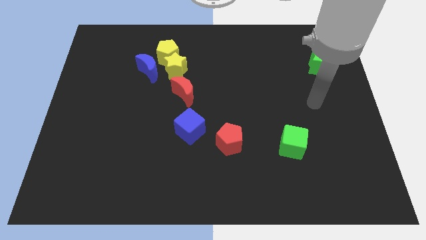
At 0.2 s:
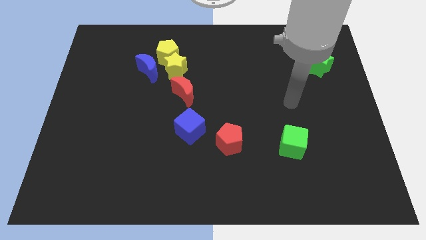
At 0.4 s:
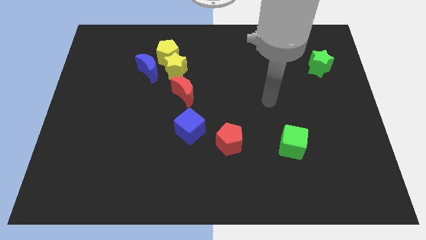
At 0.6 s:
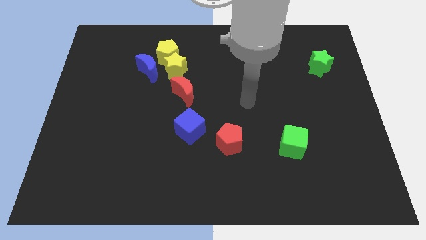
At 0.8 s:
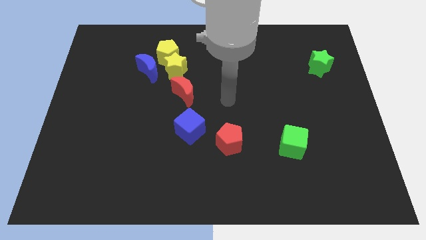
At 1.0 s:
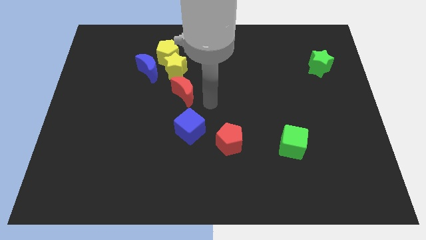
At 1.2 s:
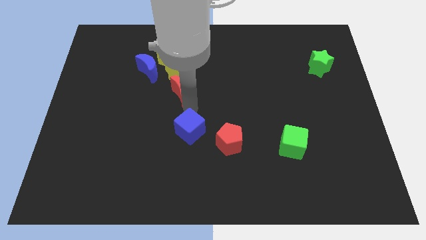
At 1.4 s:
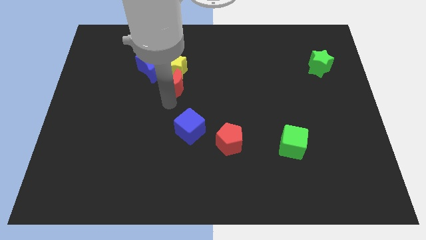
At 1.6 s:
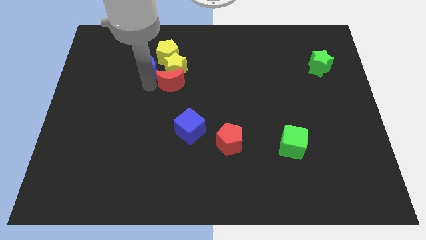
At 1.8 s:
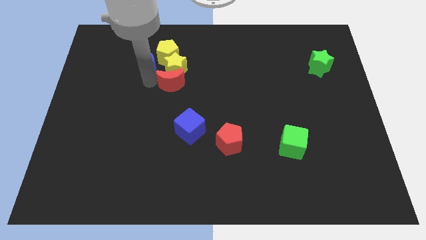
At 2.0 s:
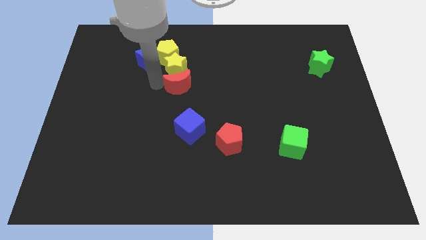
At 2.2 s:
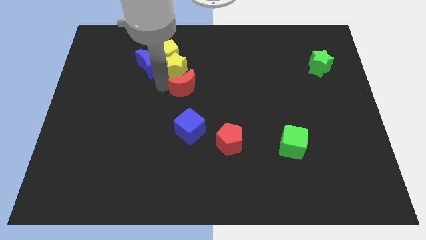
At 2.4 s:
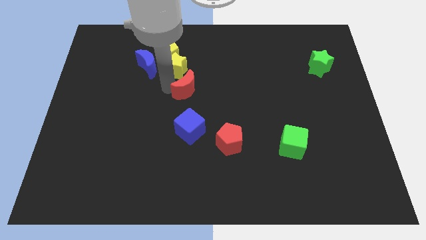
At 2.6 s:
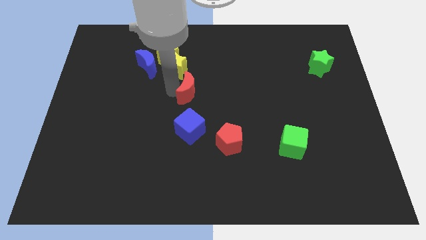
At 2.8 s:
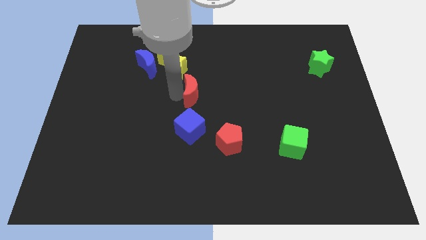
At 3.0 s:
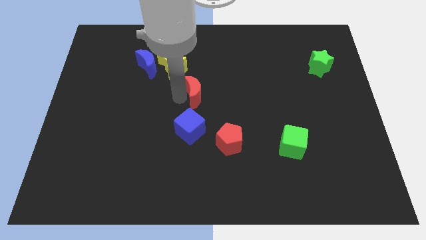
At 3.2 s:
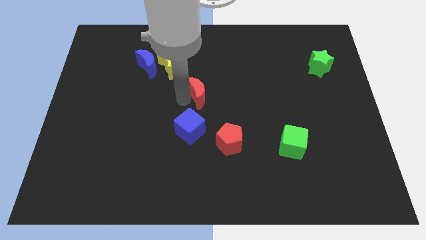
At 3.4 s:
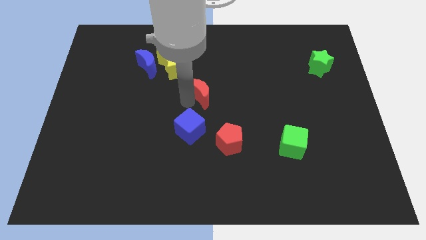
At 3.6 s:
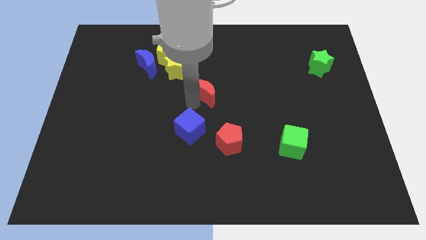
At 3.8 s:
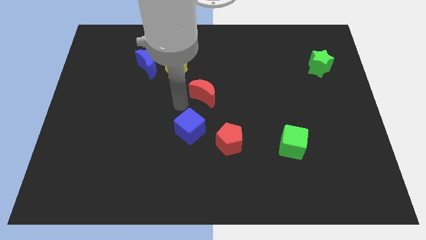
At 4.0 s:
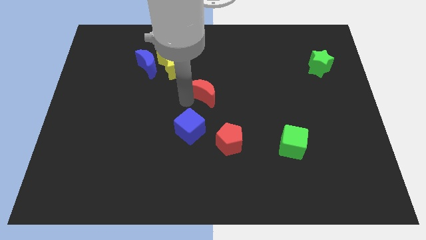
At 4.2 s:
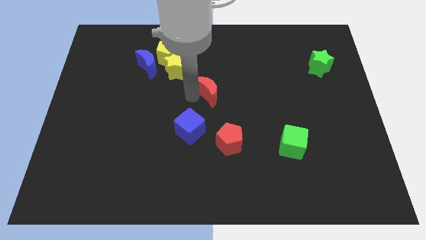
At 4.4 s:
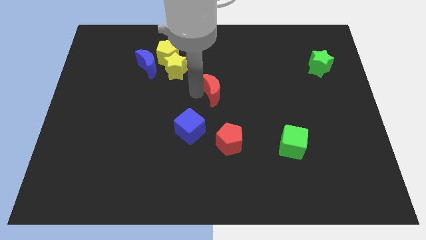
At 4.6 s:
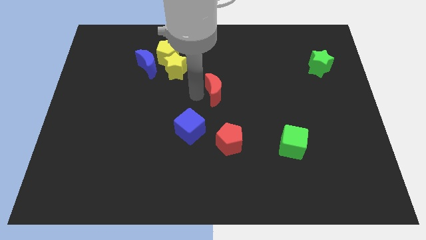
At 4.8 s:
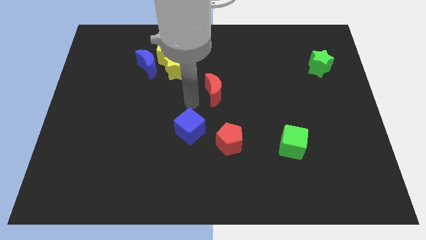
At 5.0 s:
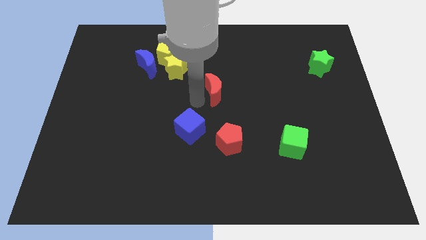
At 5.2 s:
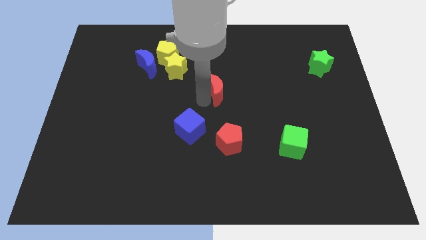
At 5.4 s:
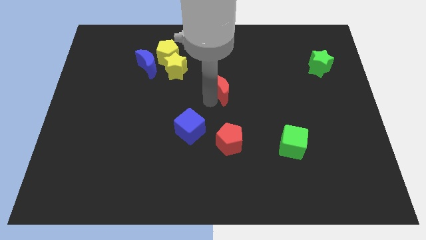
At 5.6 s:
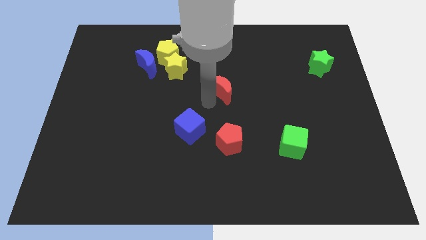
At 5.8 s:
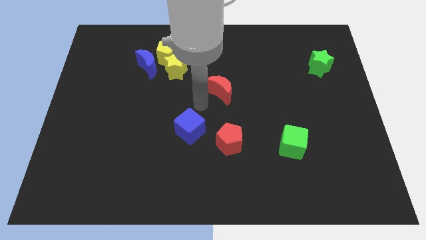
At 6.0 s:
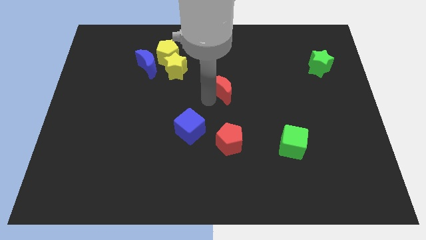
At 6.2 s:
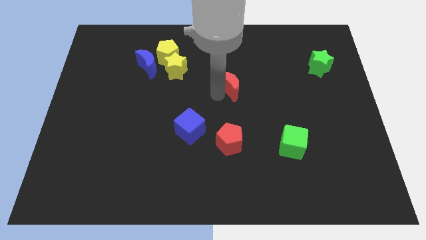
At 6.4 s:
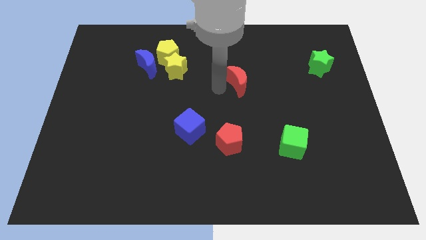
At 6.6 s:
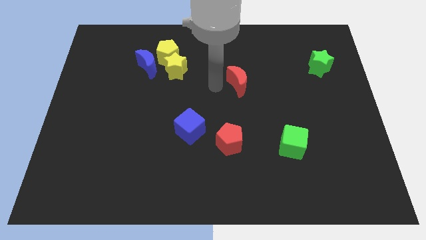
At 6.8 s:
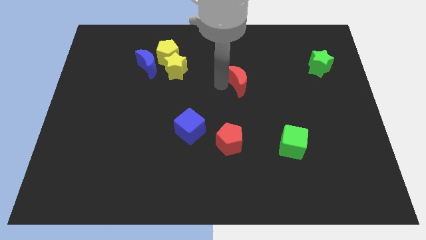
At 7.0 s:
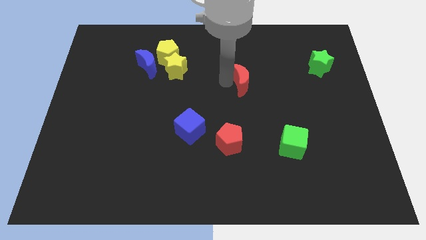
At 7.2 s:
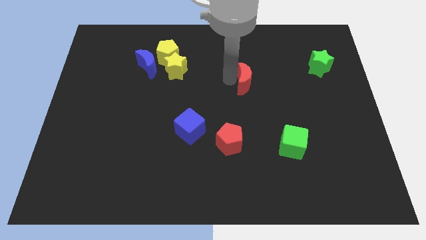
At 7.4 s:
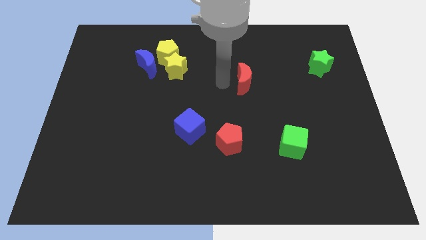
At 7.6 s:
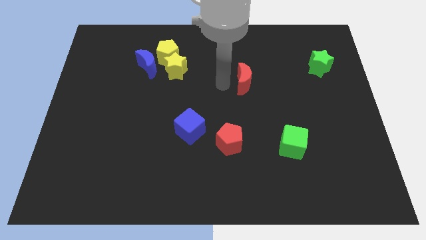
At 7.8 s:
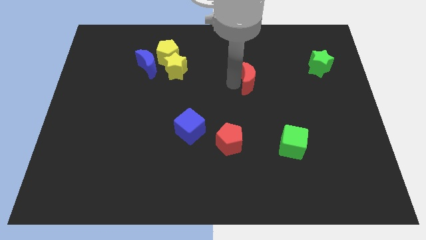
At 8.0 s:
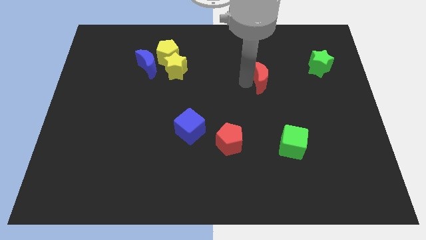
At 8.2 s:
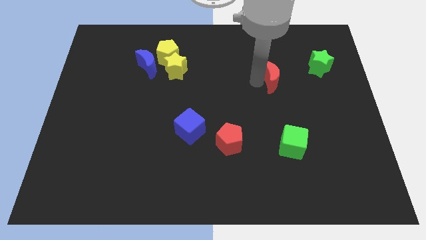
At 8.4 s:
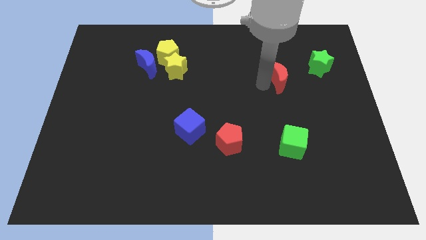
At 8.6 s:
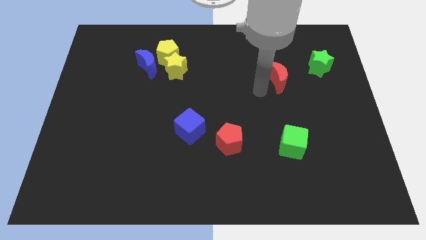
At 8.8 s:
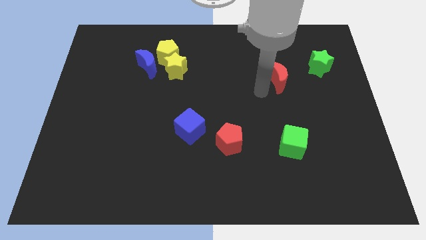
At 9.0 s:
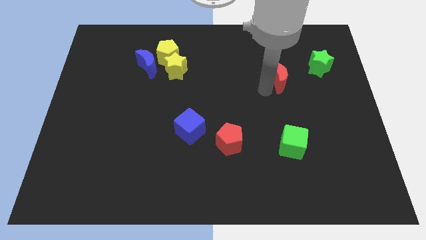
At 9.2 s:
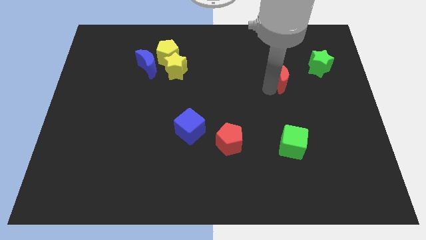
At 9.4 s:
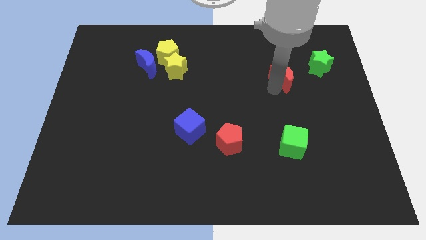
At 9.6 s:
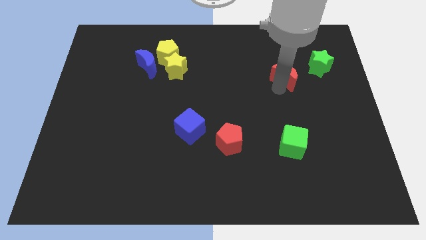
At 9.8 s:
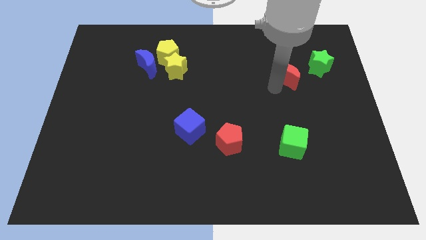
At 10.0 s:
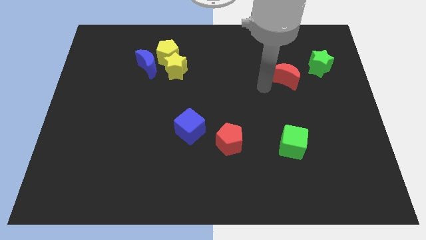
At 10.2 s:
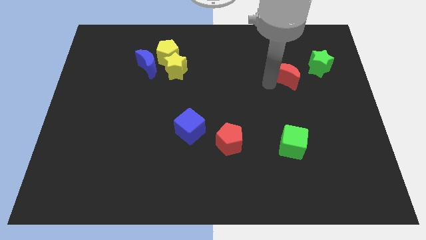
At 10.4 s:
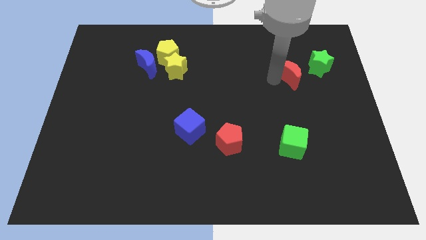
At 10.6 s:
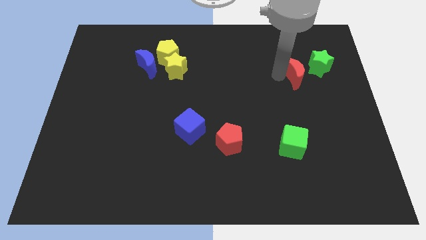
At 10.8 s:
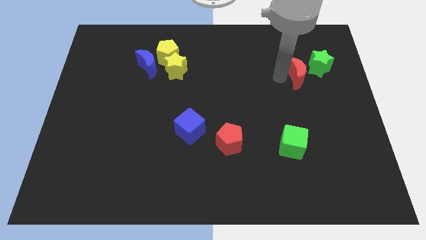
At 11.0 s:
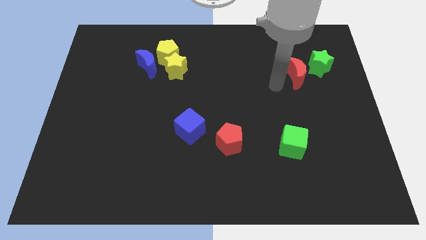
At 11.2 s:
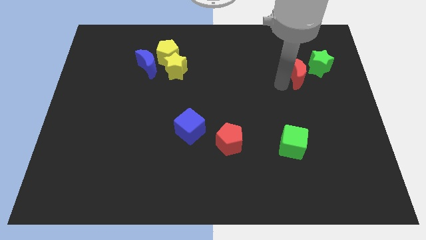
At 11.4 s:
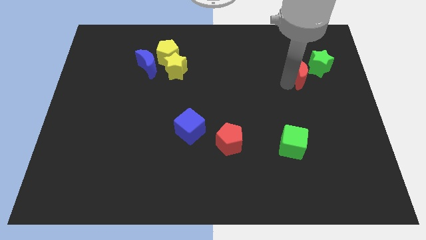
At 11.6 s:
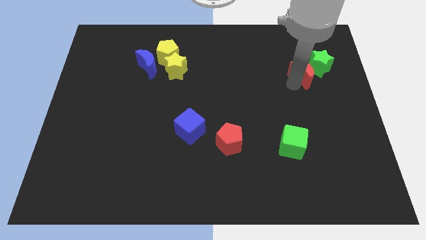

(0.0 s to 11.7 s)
push the red moon next to the green star

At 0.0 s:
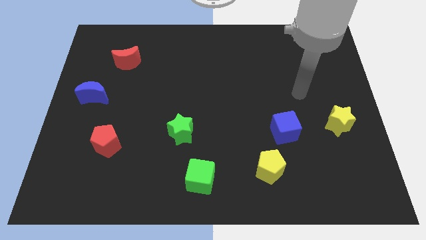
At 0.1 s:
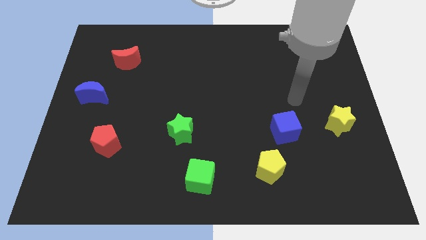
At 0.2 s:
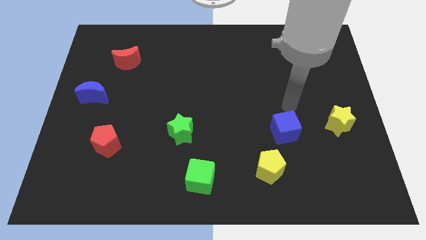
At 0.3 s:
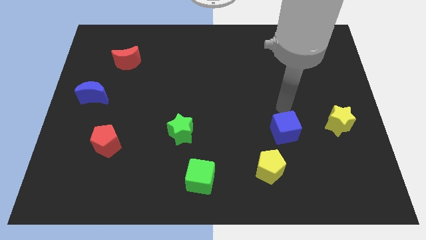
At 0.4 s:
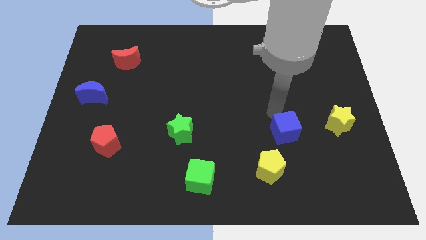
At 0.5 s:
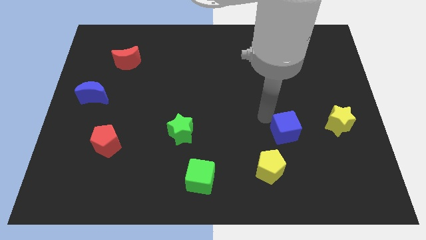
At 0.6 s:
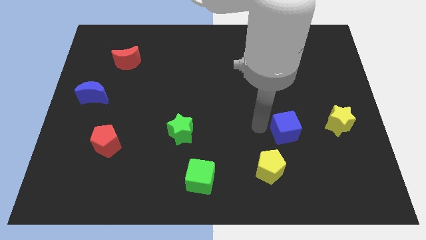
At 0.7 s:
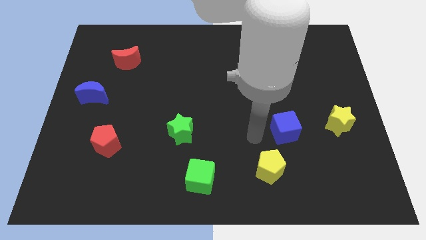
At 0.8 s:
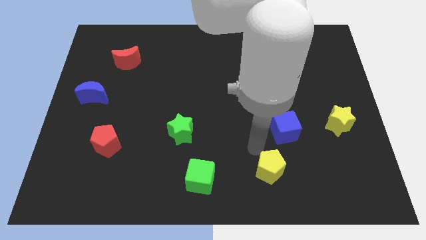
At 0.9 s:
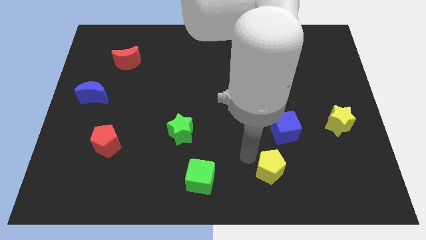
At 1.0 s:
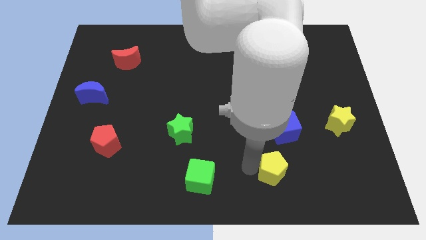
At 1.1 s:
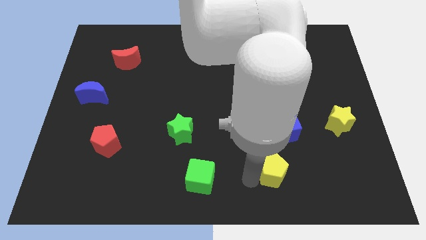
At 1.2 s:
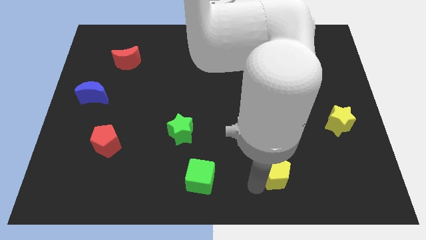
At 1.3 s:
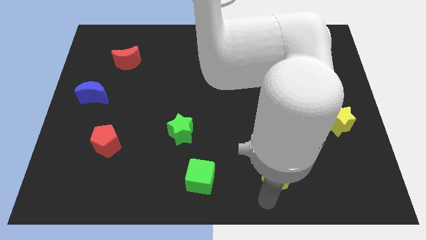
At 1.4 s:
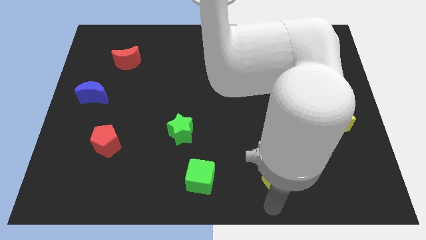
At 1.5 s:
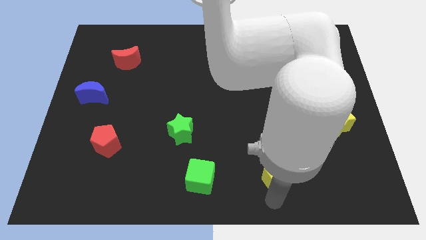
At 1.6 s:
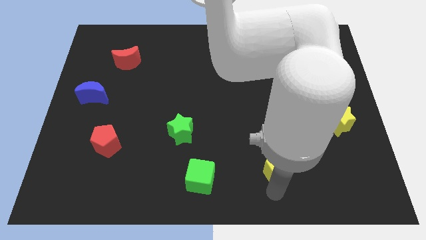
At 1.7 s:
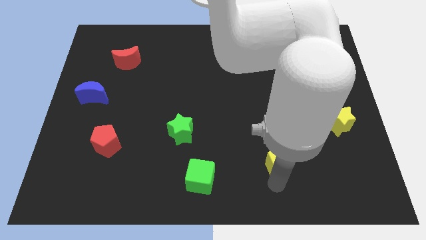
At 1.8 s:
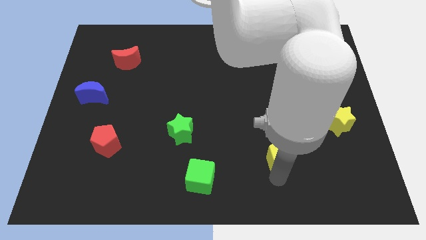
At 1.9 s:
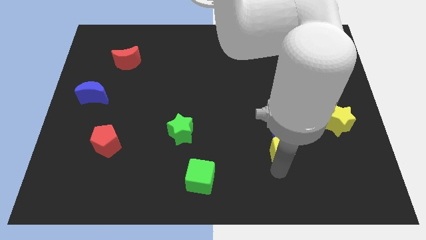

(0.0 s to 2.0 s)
push the yellow pentagon to the blue cube
